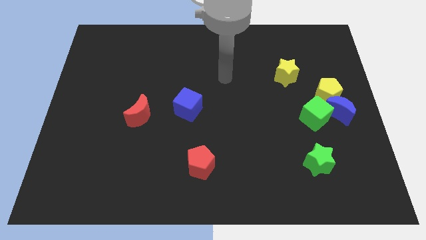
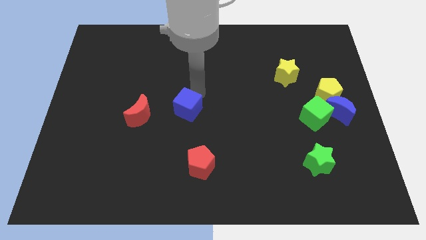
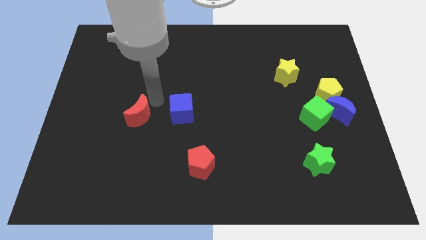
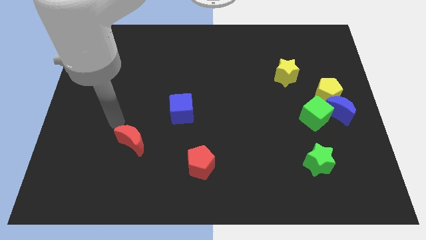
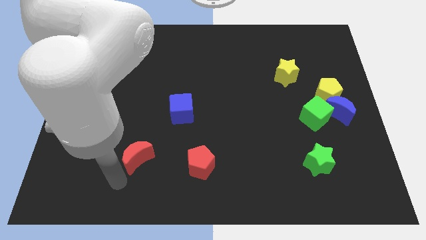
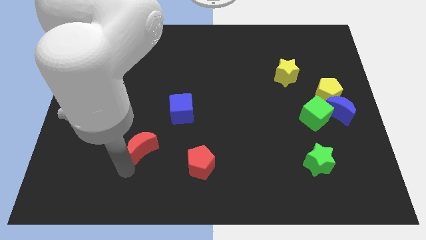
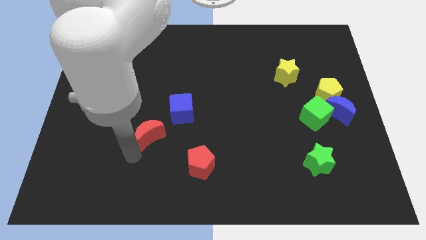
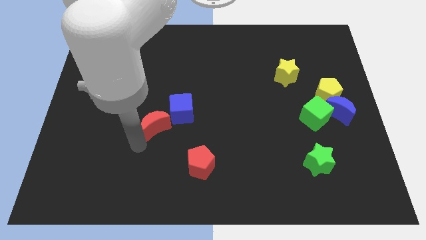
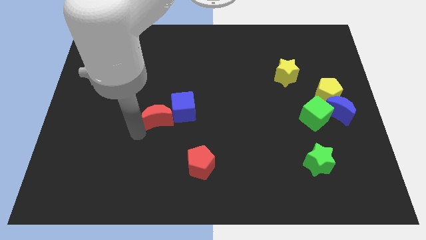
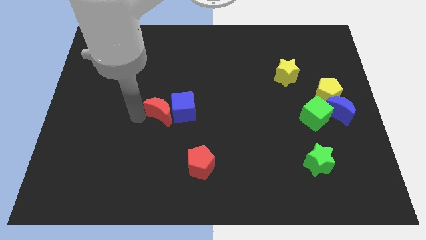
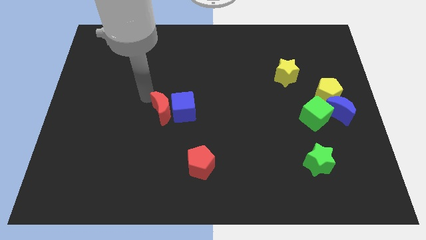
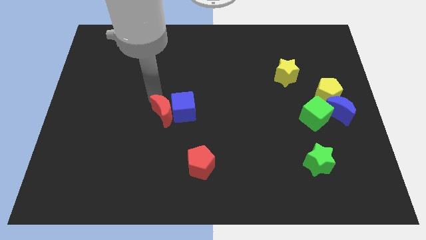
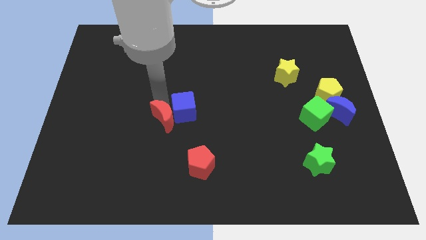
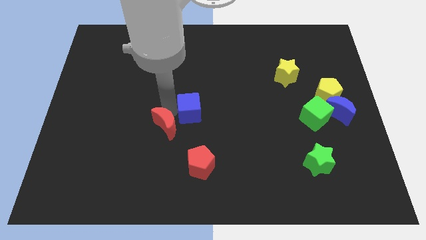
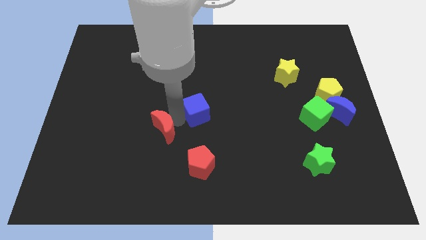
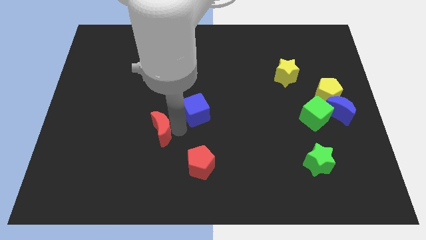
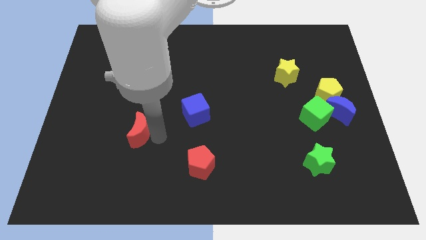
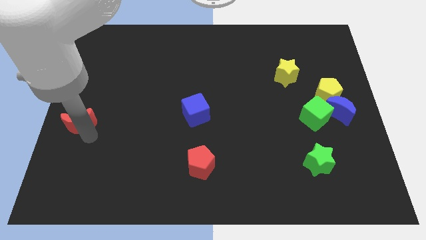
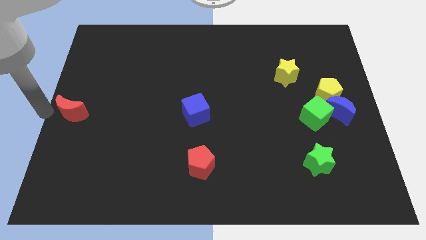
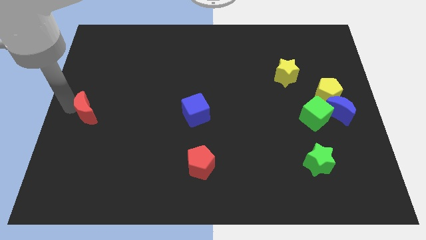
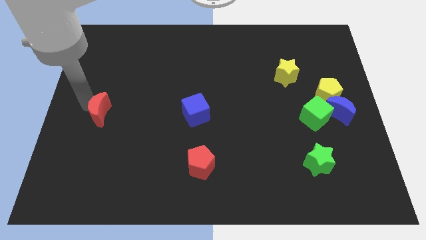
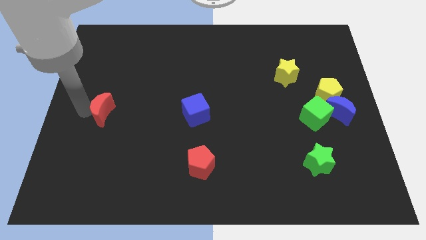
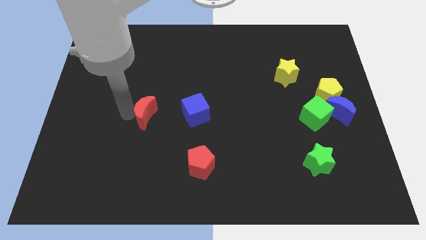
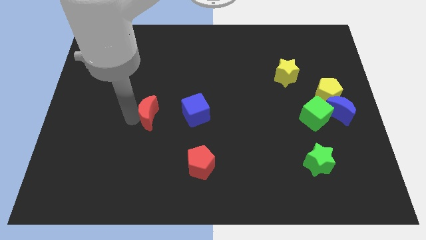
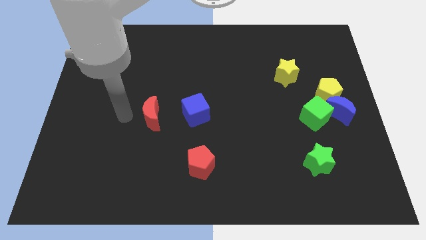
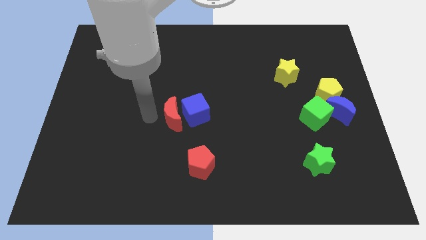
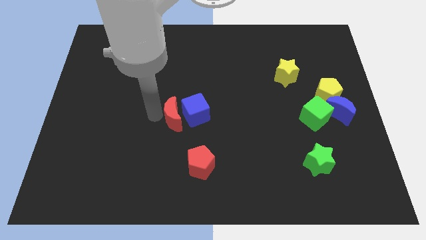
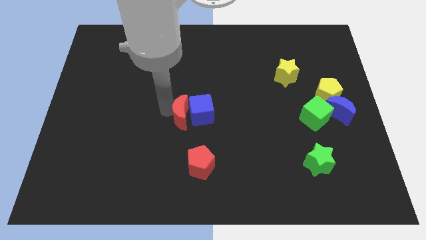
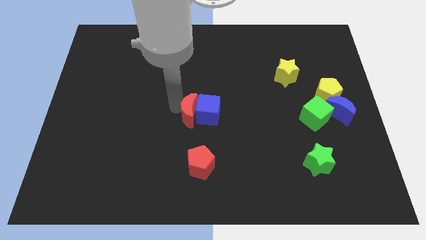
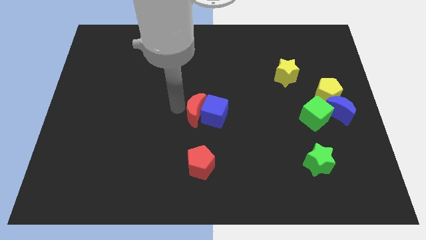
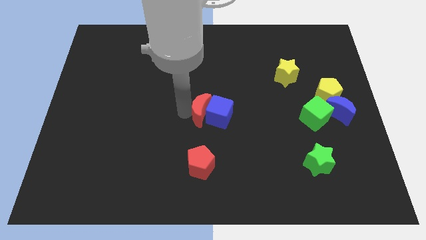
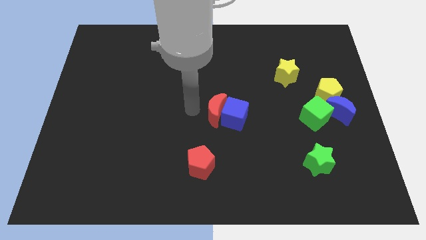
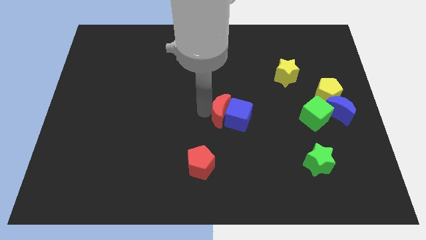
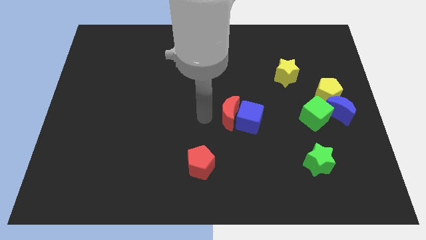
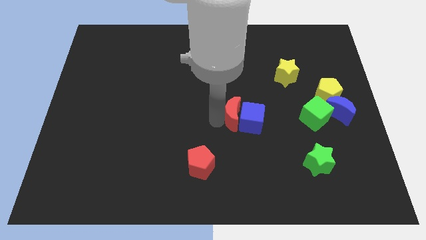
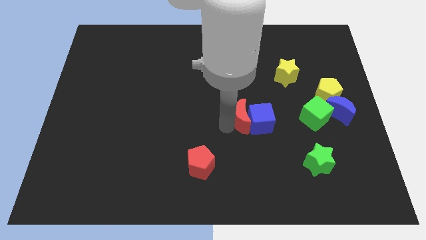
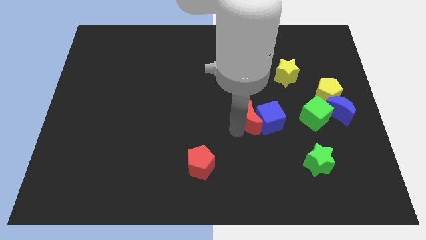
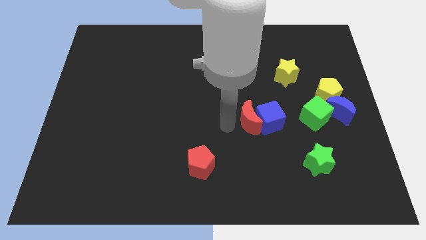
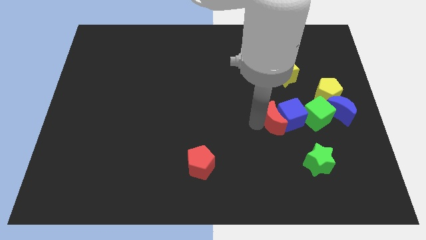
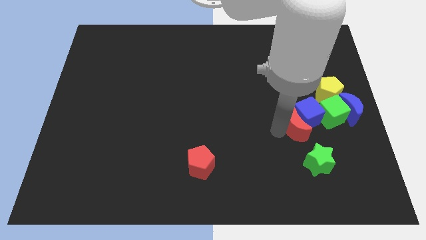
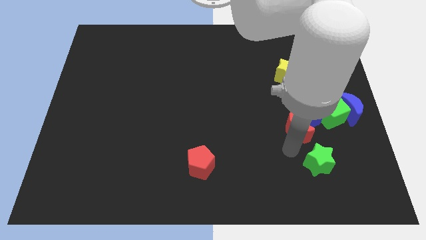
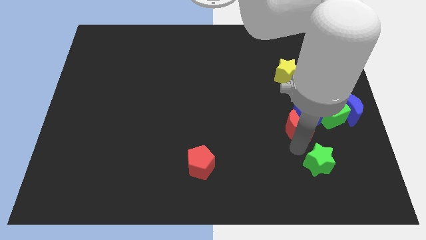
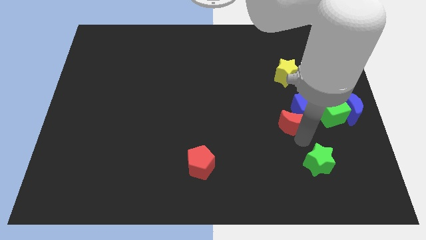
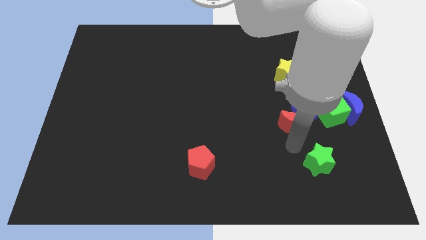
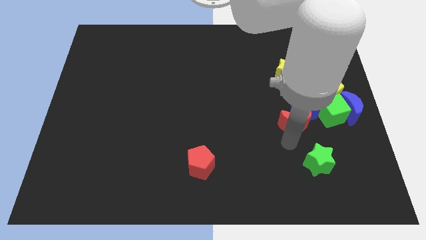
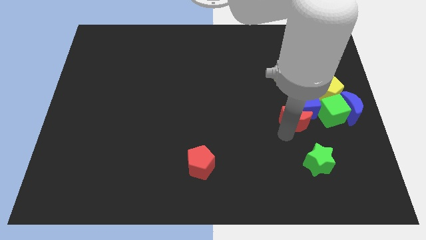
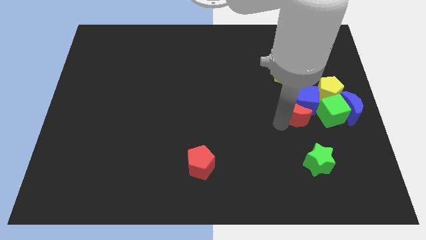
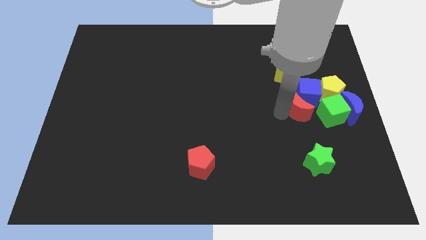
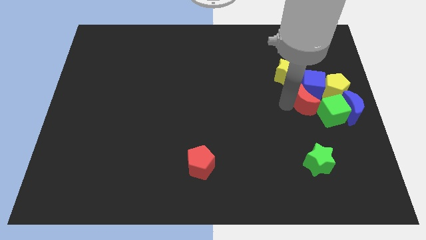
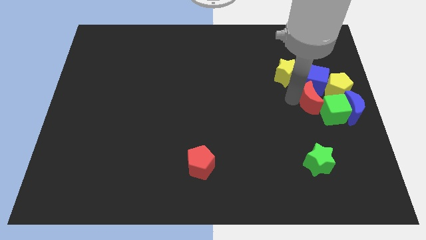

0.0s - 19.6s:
slide the red moon to the green cube

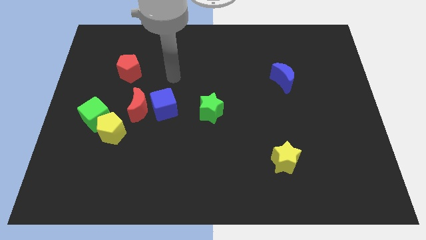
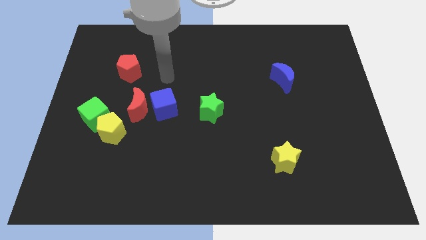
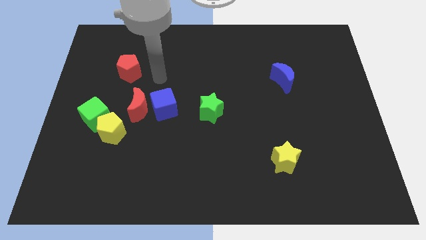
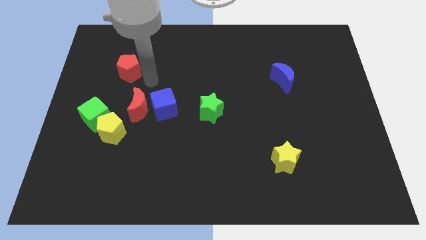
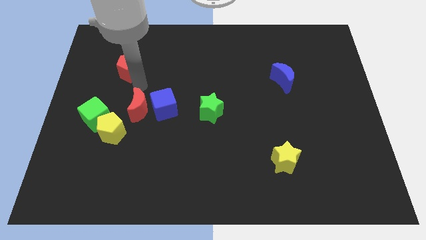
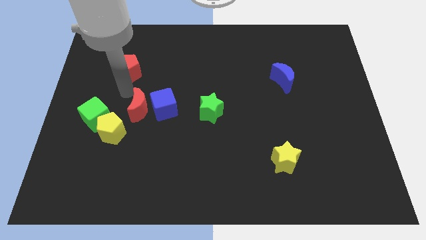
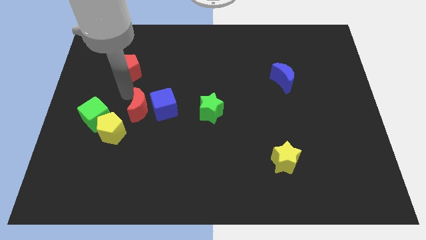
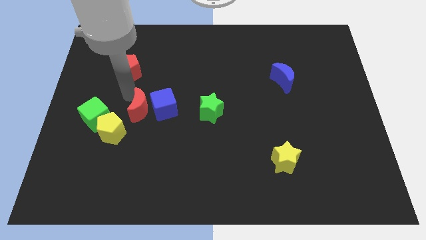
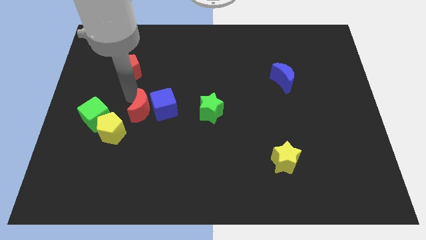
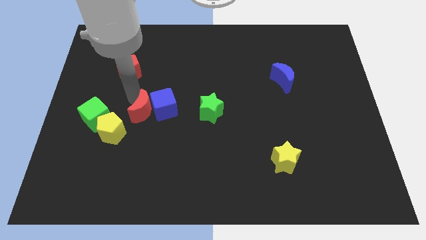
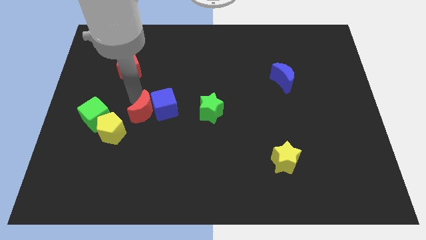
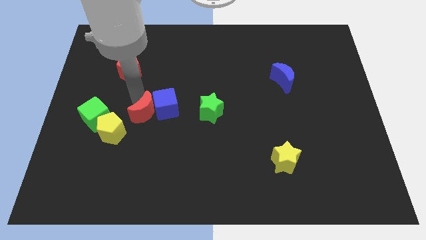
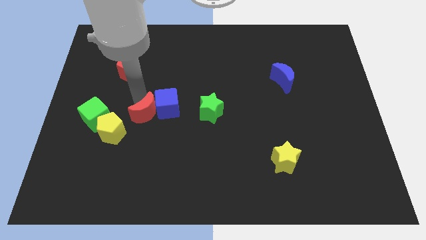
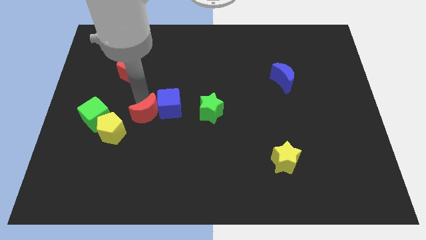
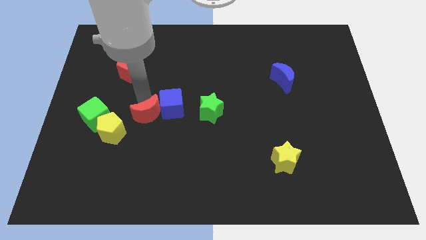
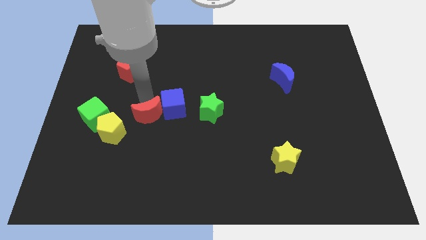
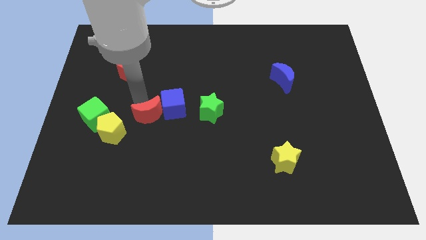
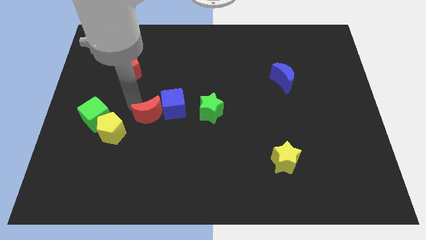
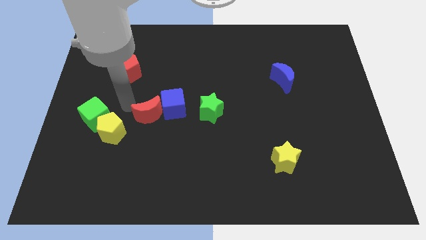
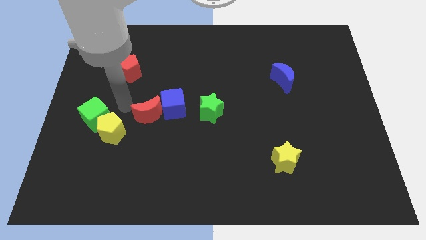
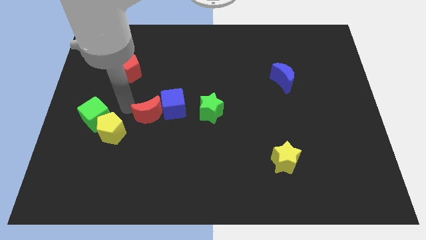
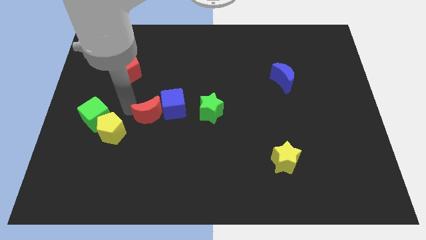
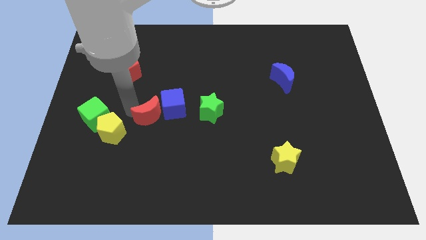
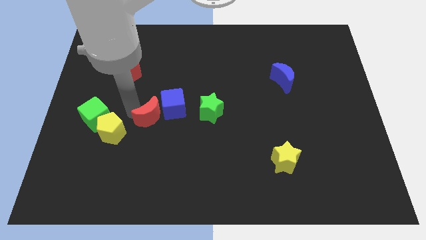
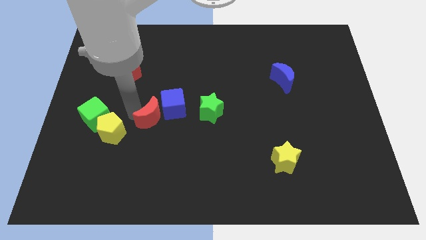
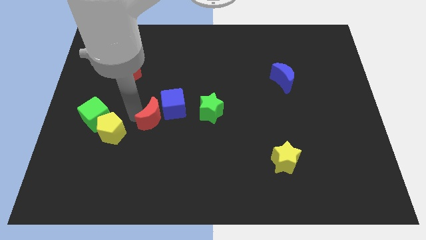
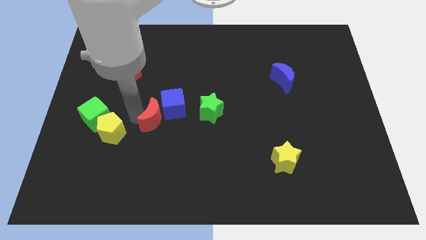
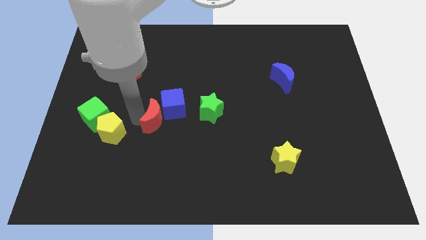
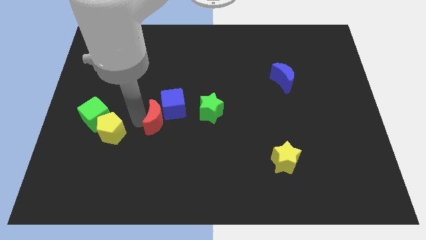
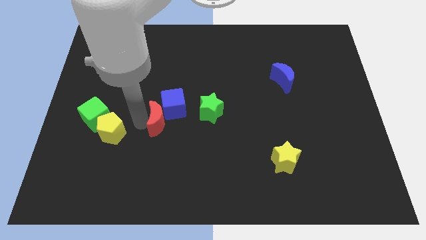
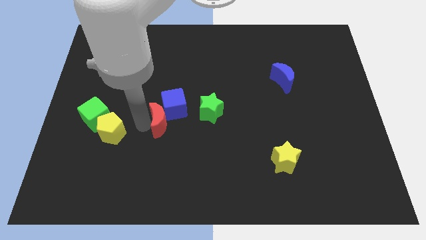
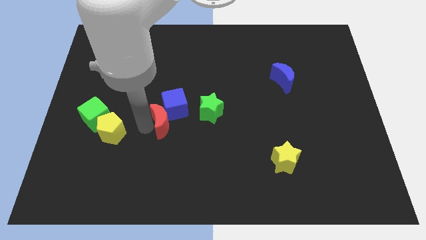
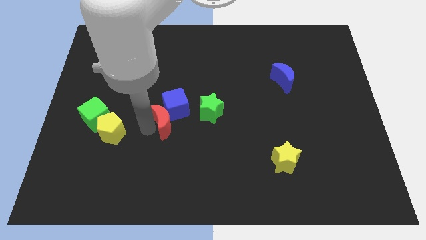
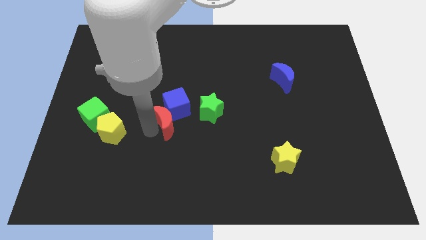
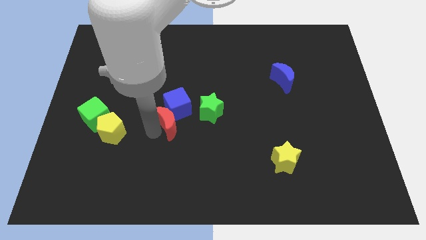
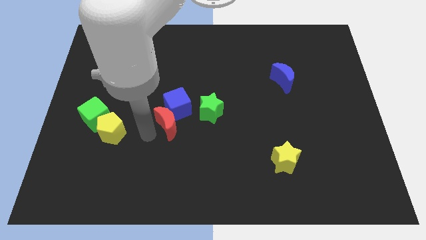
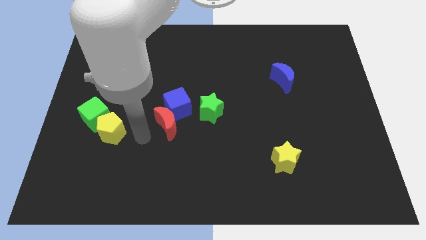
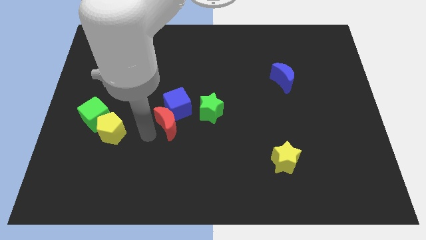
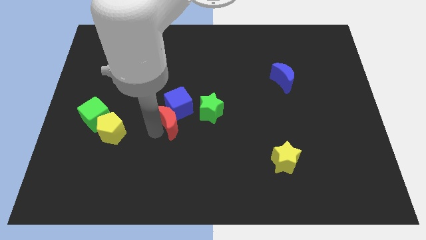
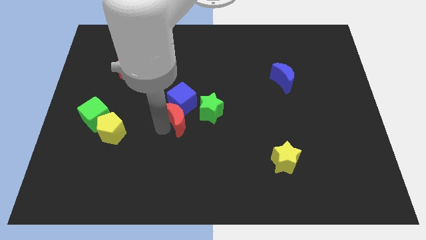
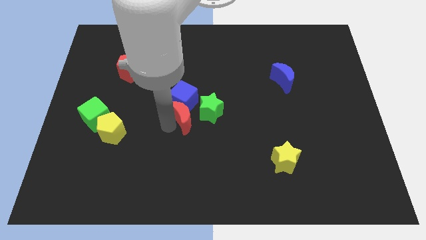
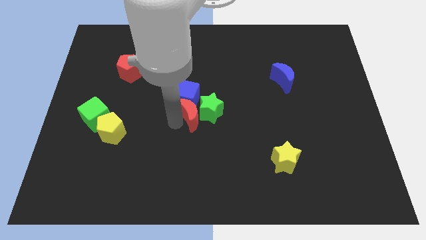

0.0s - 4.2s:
move the red moon towards the green star
